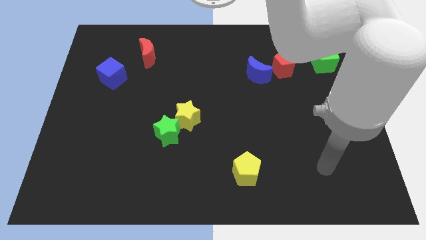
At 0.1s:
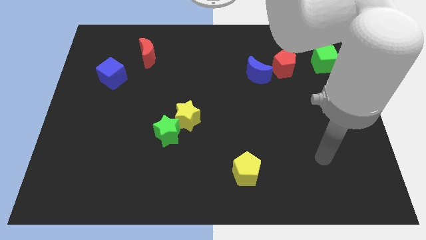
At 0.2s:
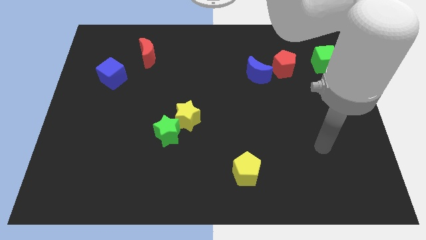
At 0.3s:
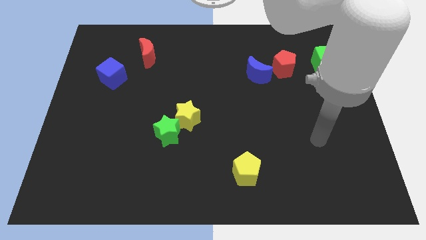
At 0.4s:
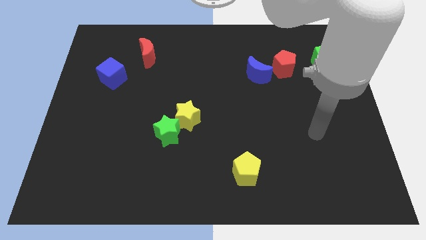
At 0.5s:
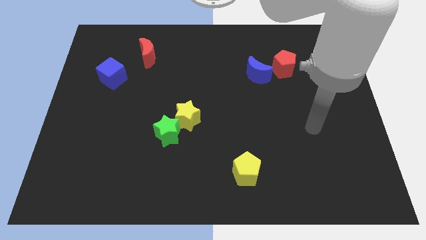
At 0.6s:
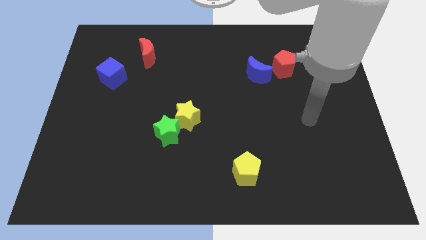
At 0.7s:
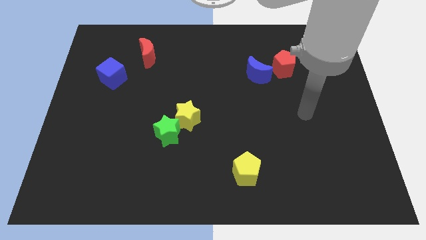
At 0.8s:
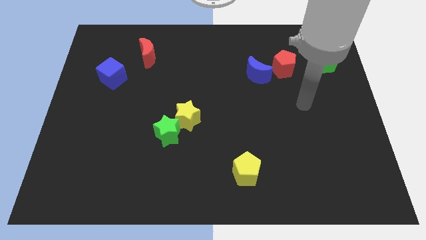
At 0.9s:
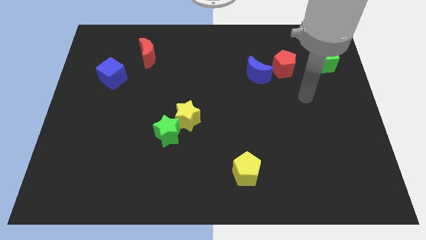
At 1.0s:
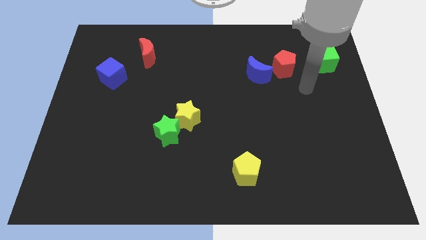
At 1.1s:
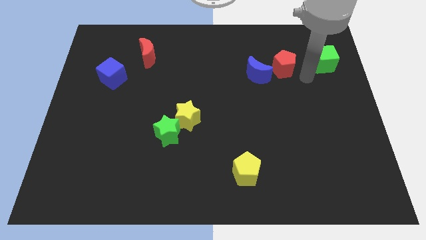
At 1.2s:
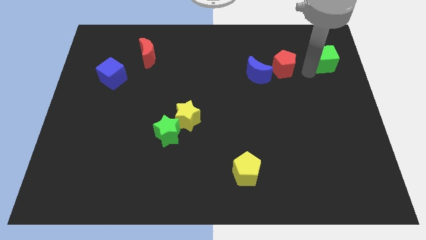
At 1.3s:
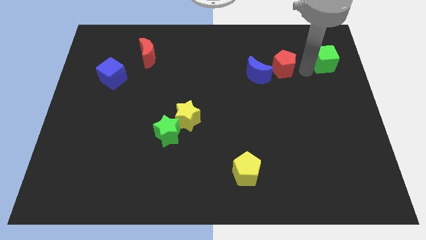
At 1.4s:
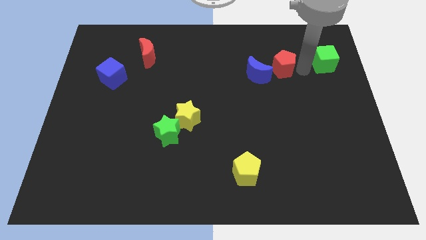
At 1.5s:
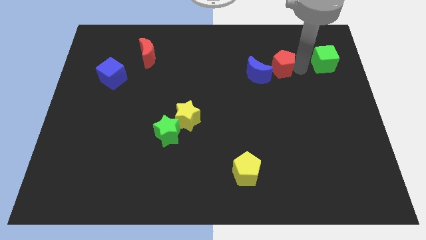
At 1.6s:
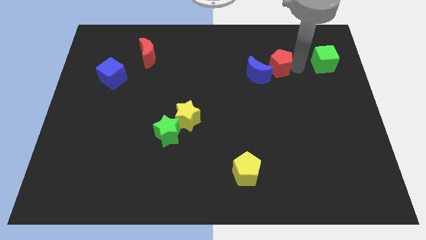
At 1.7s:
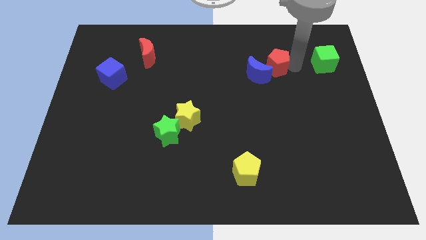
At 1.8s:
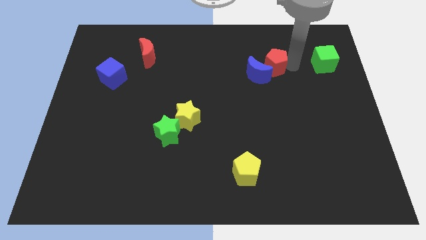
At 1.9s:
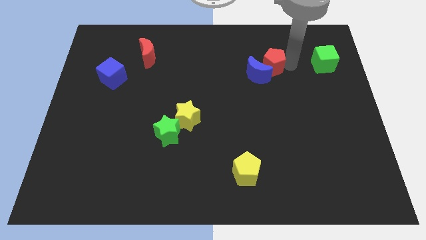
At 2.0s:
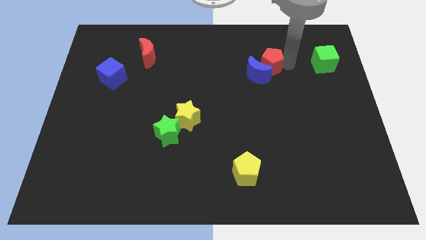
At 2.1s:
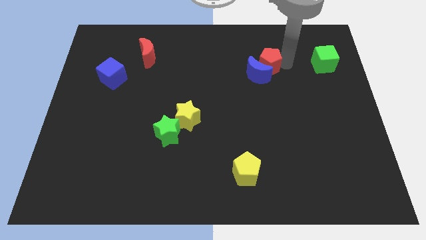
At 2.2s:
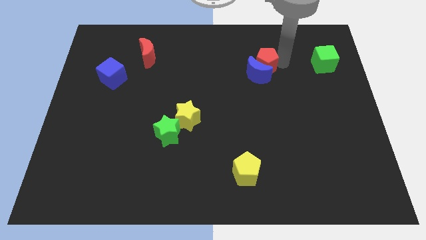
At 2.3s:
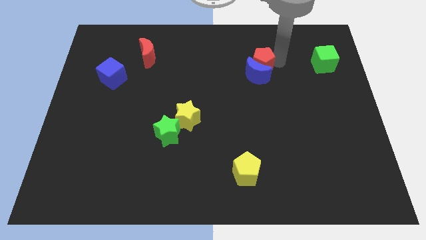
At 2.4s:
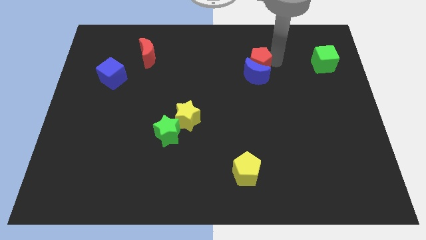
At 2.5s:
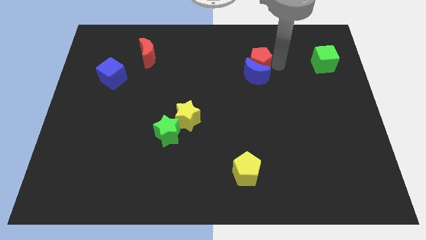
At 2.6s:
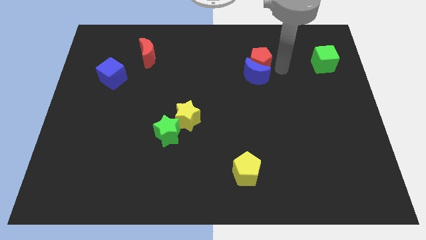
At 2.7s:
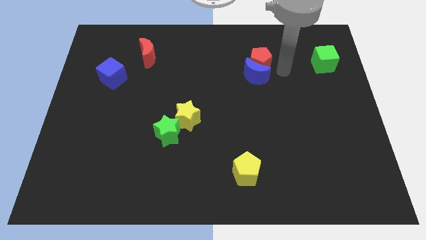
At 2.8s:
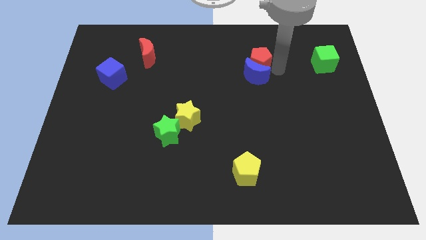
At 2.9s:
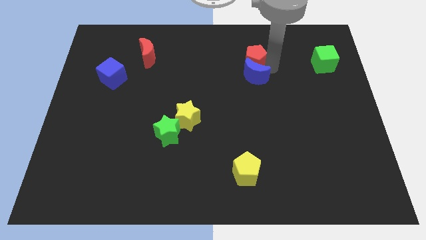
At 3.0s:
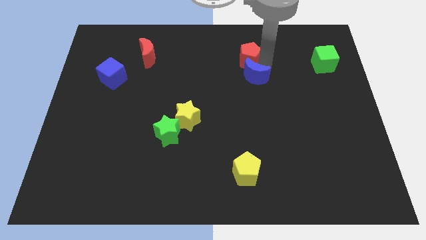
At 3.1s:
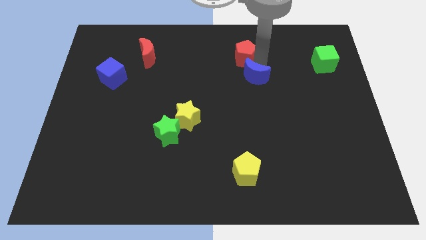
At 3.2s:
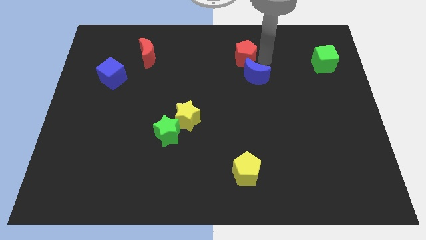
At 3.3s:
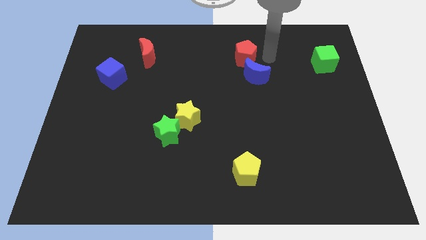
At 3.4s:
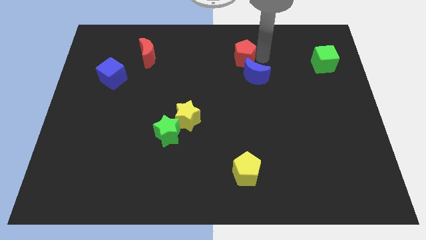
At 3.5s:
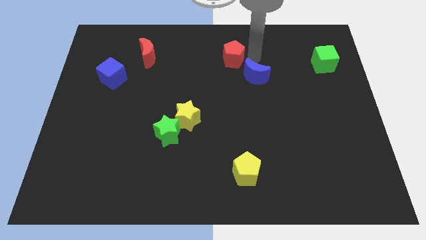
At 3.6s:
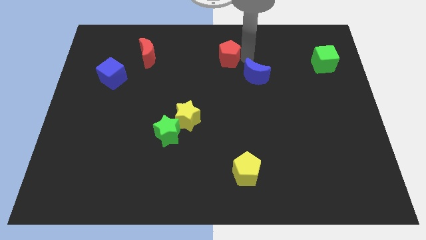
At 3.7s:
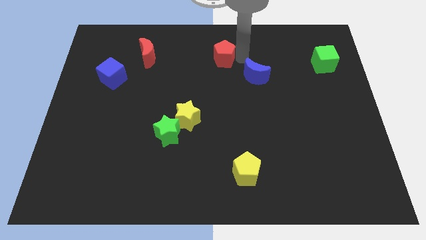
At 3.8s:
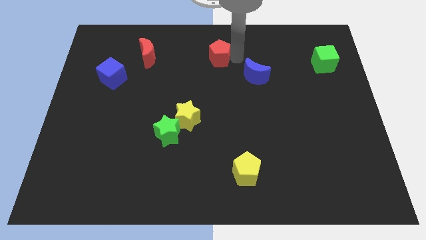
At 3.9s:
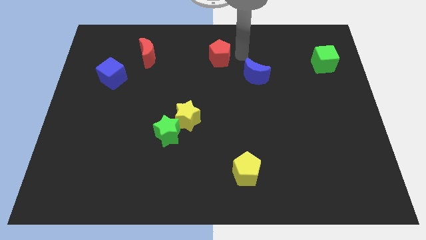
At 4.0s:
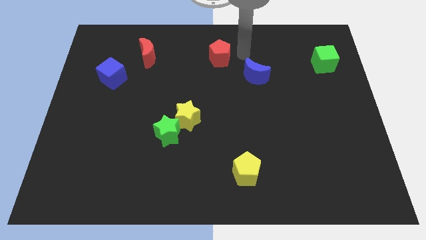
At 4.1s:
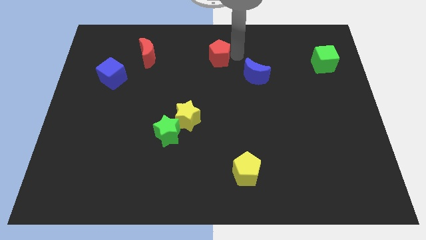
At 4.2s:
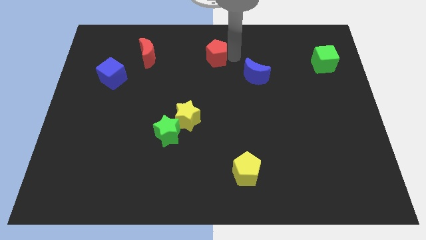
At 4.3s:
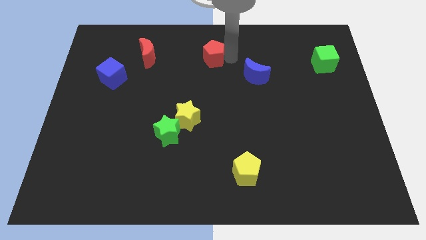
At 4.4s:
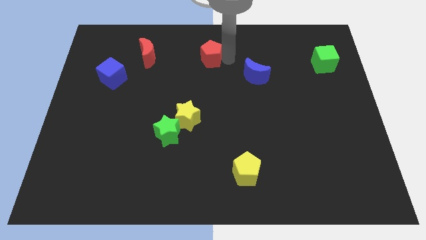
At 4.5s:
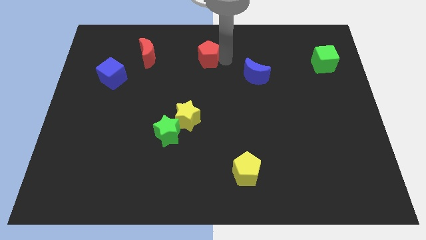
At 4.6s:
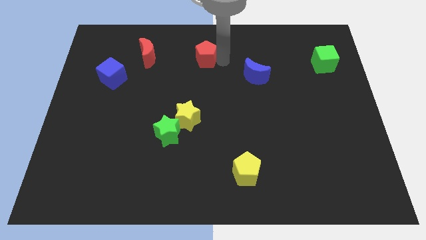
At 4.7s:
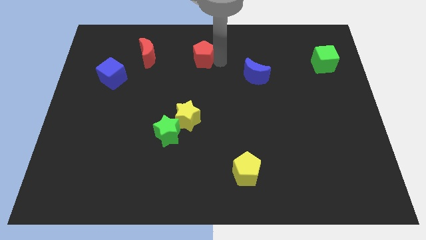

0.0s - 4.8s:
move the red pentagon to the left

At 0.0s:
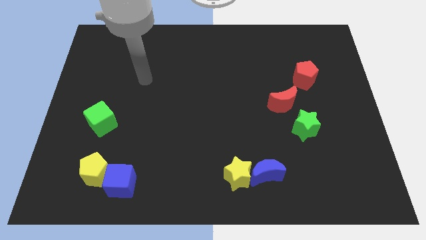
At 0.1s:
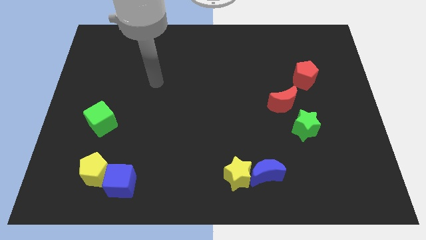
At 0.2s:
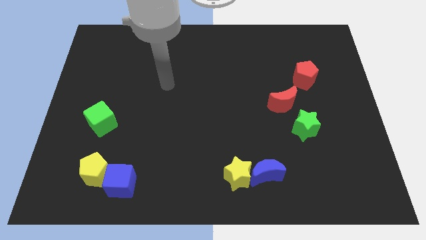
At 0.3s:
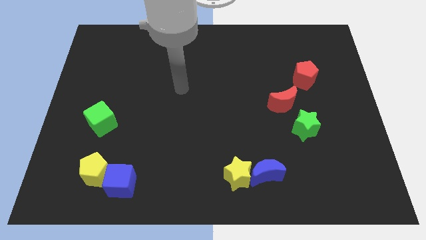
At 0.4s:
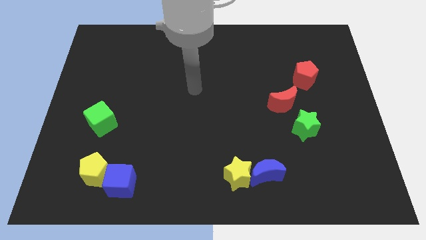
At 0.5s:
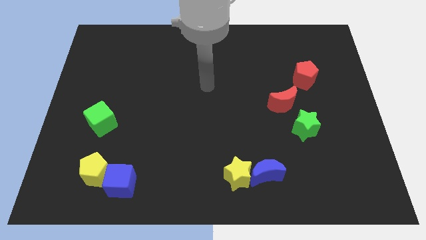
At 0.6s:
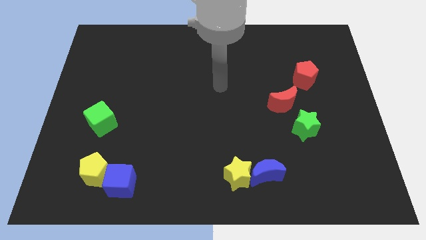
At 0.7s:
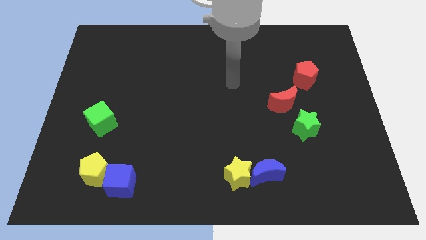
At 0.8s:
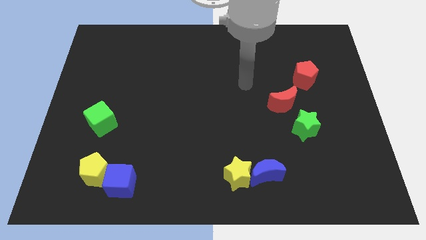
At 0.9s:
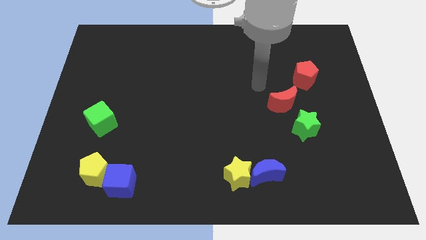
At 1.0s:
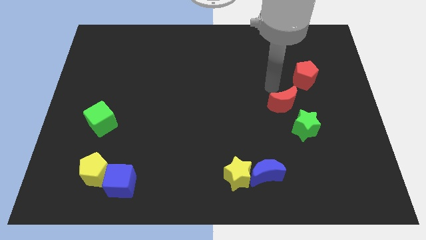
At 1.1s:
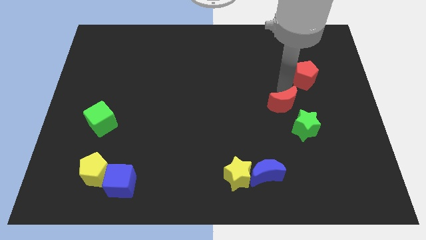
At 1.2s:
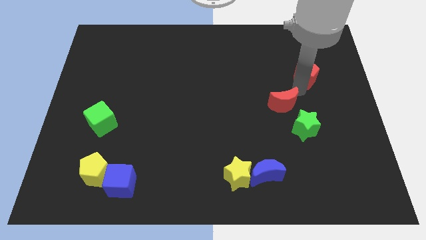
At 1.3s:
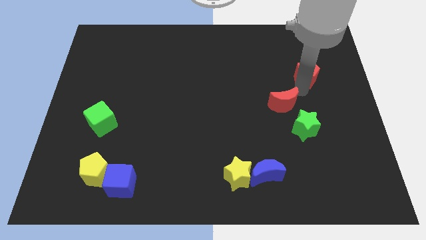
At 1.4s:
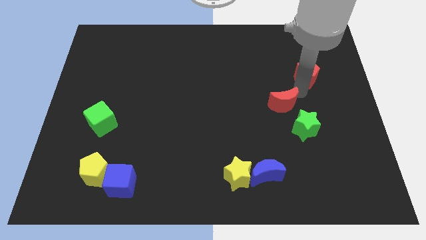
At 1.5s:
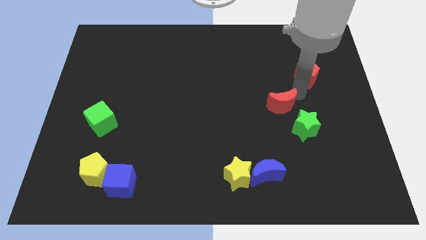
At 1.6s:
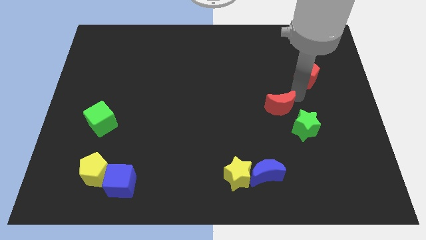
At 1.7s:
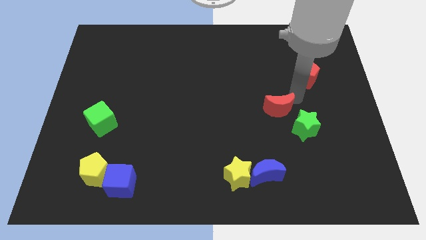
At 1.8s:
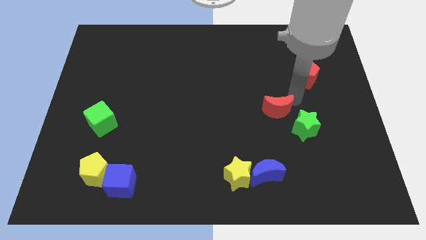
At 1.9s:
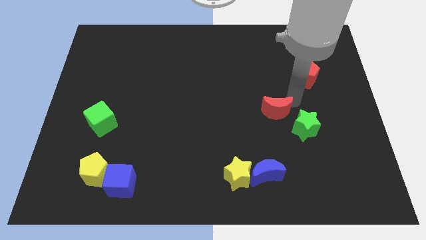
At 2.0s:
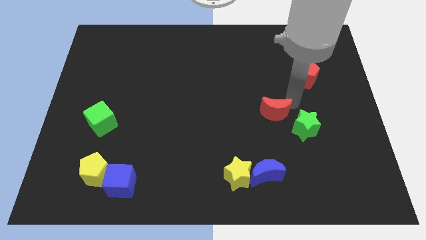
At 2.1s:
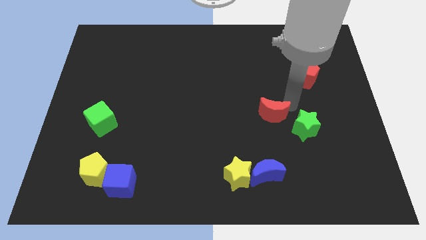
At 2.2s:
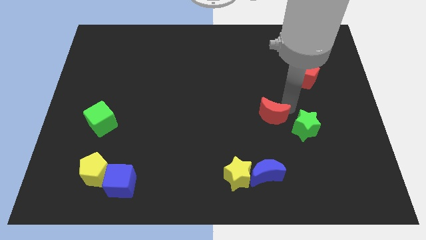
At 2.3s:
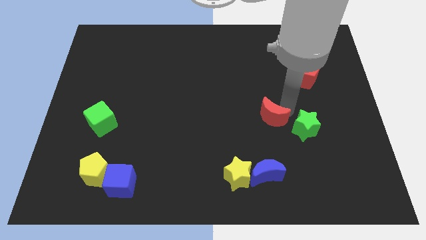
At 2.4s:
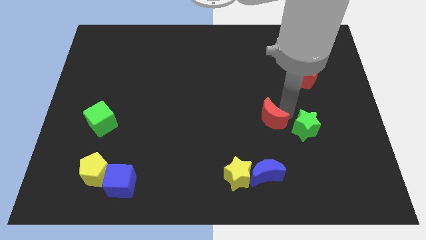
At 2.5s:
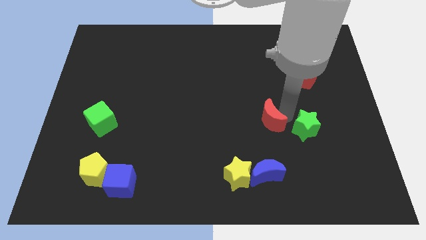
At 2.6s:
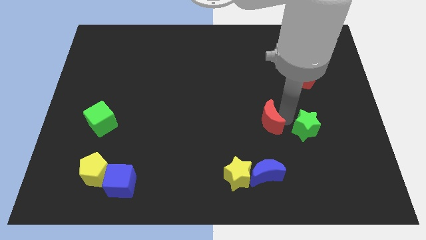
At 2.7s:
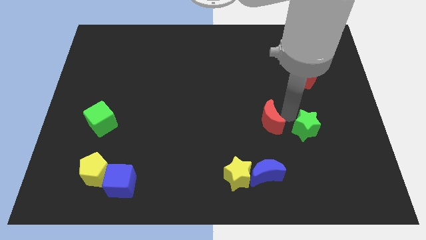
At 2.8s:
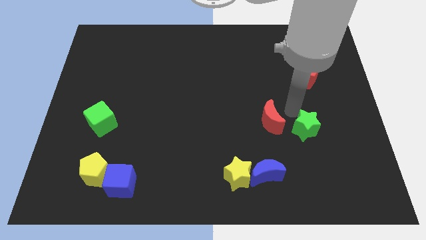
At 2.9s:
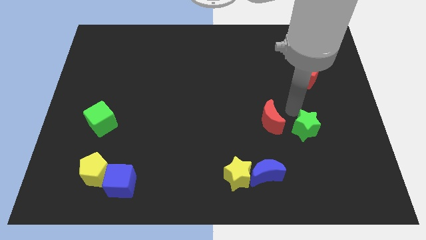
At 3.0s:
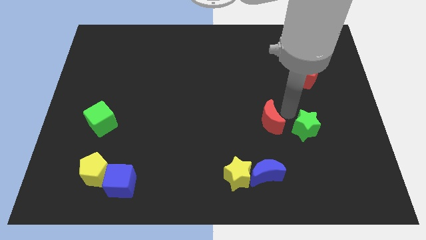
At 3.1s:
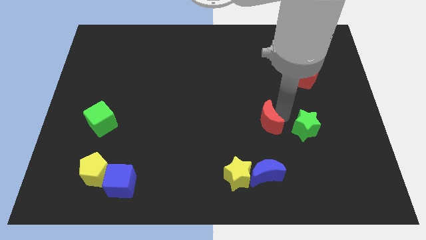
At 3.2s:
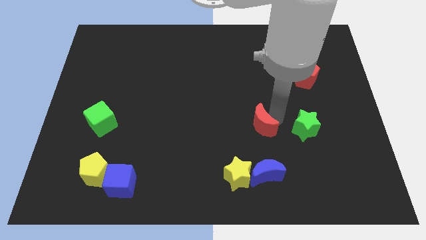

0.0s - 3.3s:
slightly move the red moon down and to the left diagonally
